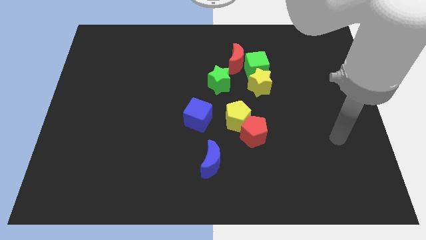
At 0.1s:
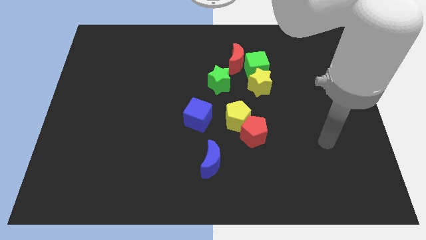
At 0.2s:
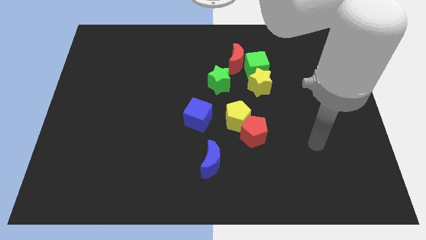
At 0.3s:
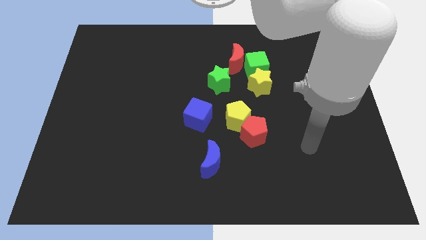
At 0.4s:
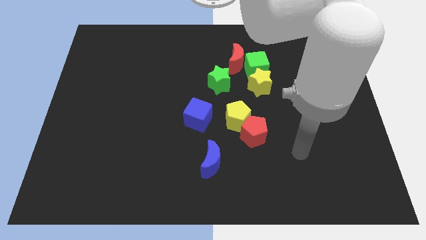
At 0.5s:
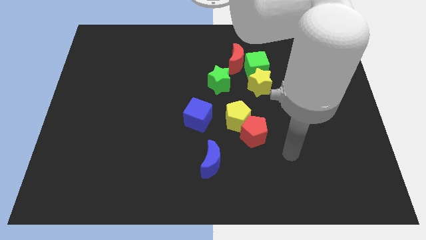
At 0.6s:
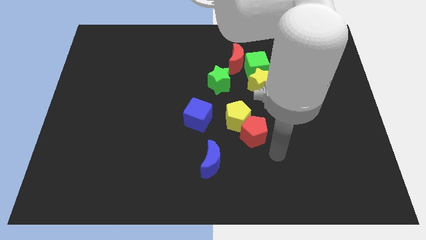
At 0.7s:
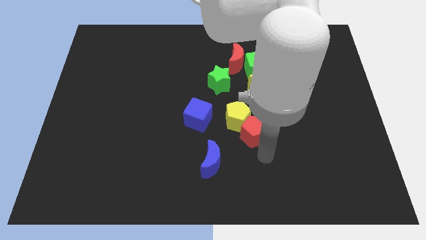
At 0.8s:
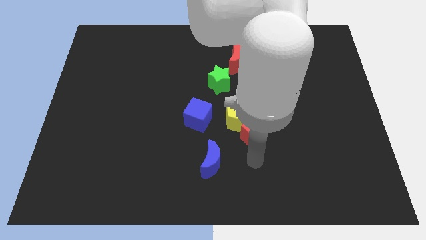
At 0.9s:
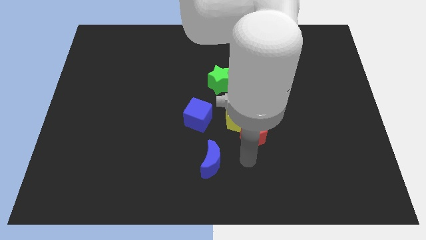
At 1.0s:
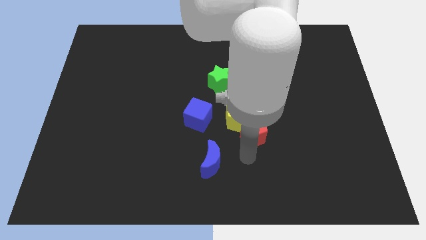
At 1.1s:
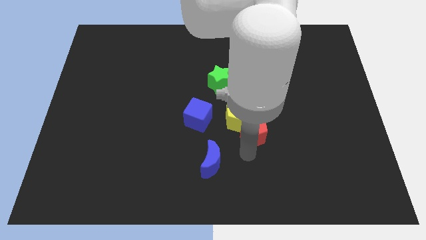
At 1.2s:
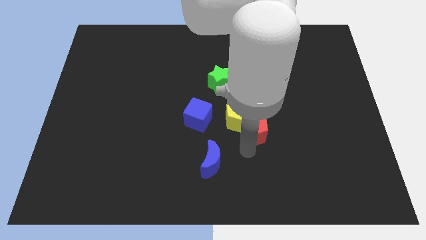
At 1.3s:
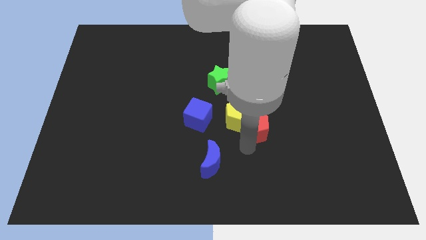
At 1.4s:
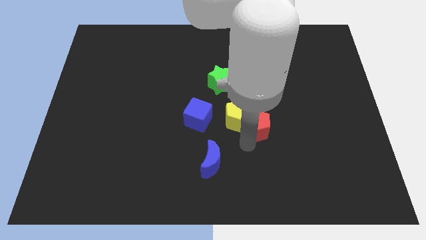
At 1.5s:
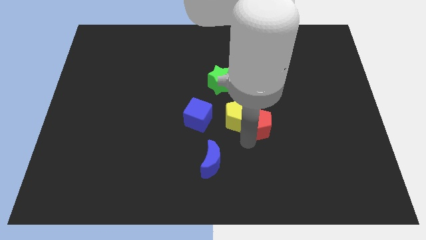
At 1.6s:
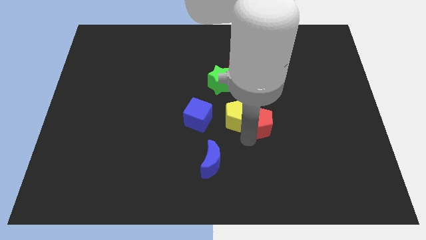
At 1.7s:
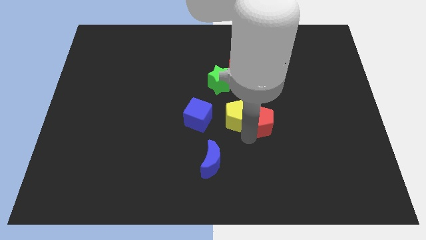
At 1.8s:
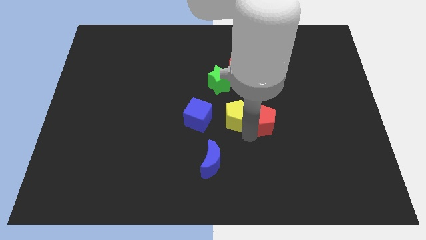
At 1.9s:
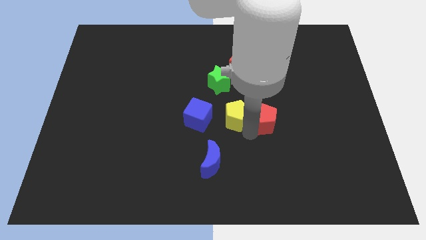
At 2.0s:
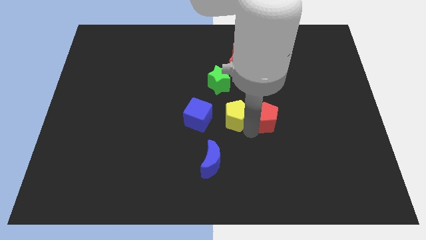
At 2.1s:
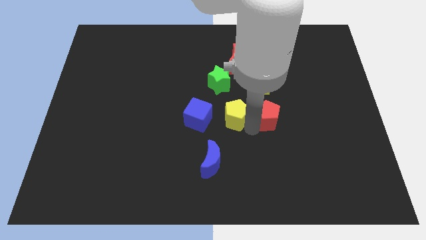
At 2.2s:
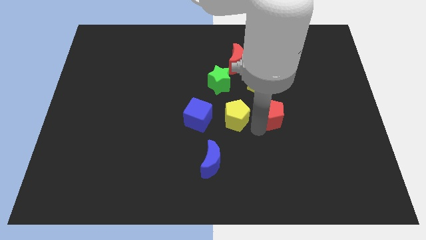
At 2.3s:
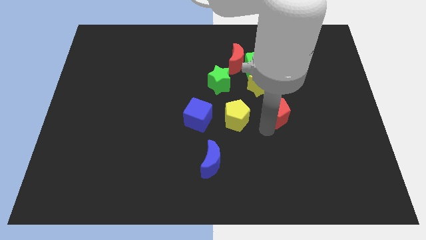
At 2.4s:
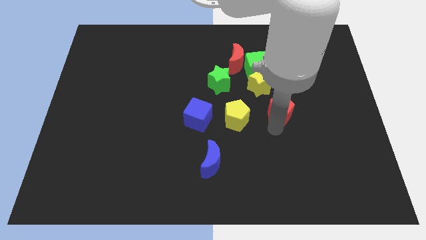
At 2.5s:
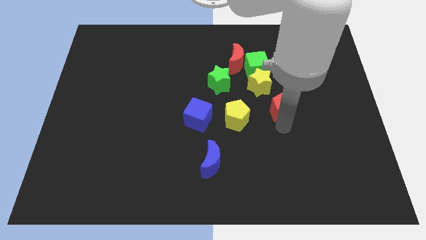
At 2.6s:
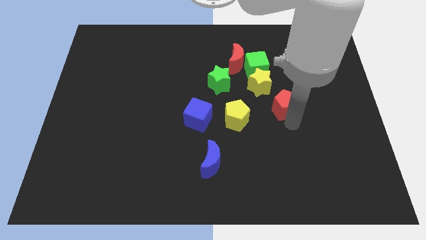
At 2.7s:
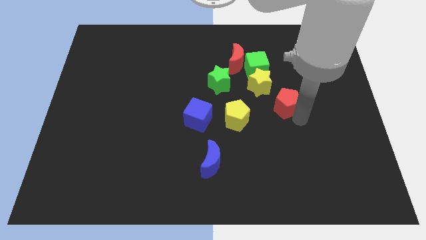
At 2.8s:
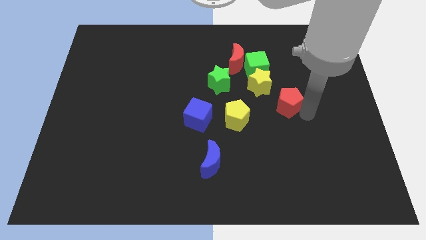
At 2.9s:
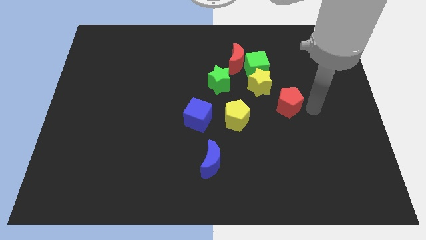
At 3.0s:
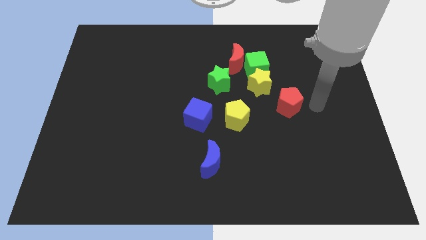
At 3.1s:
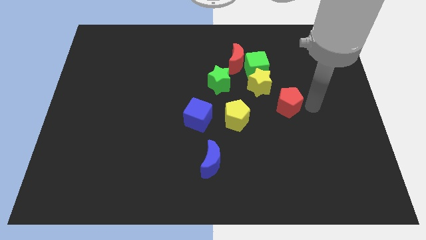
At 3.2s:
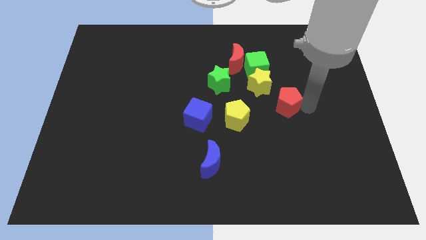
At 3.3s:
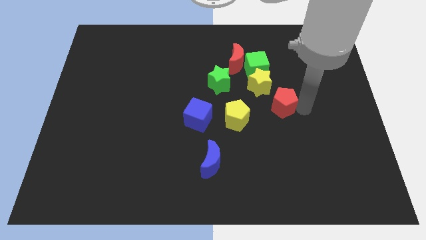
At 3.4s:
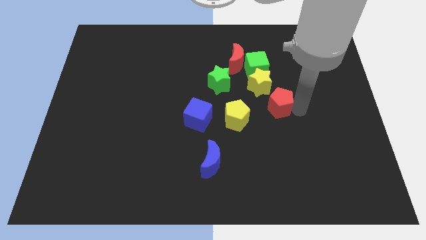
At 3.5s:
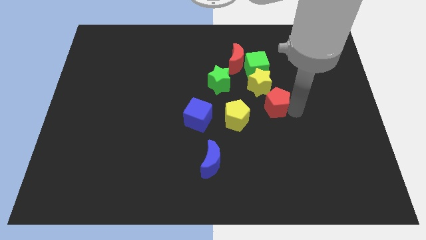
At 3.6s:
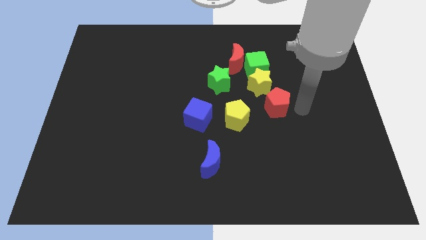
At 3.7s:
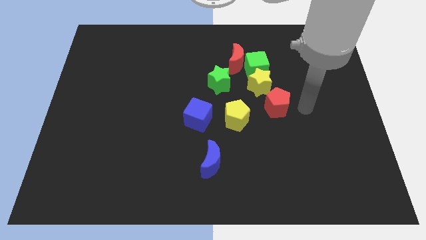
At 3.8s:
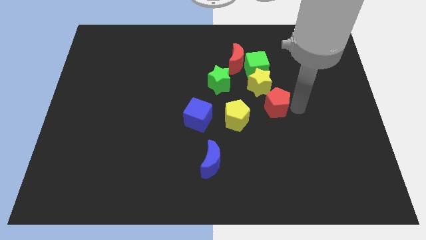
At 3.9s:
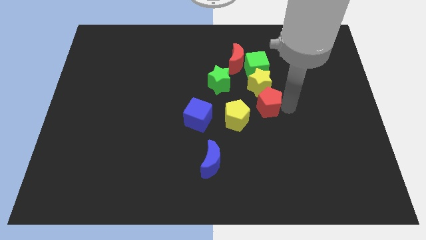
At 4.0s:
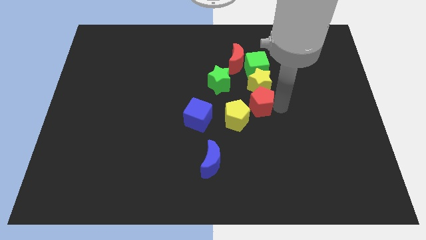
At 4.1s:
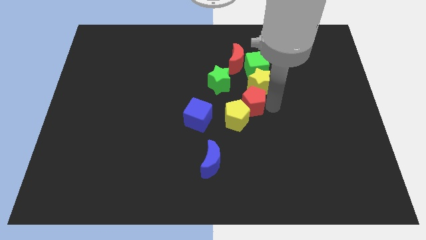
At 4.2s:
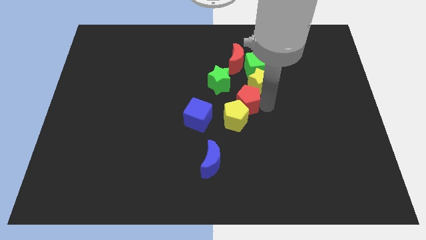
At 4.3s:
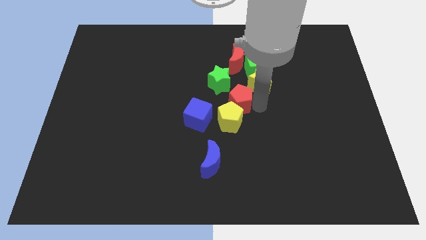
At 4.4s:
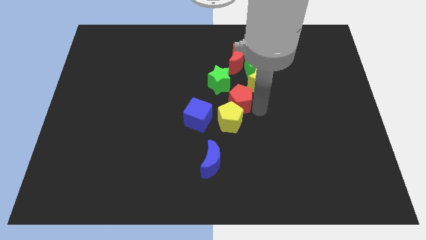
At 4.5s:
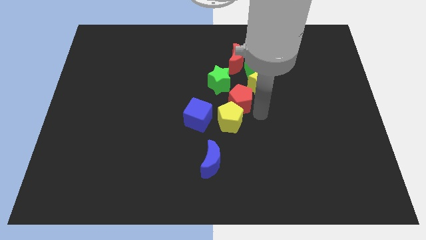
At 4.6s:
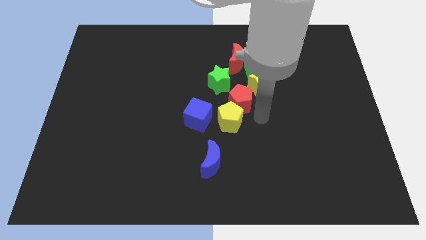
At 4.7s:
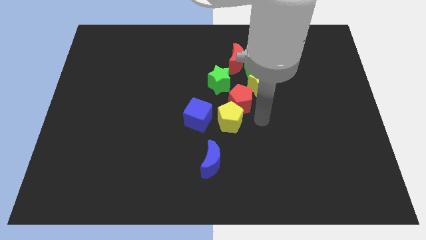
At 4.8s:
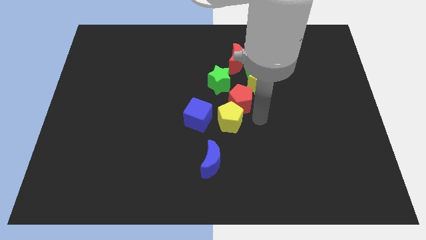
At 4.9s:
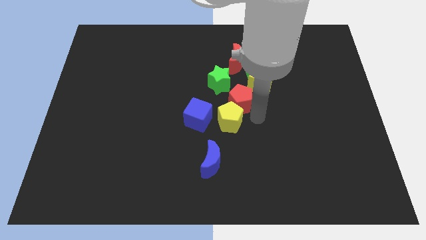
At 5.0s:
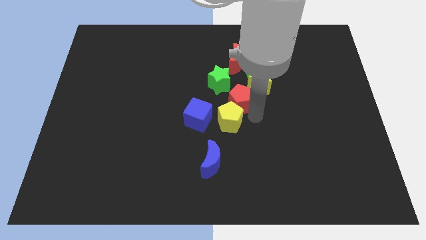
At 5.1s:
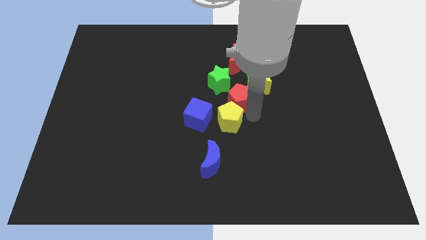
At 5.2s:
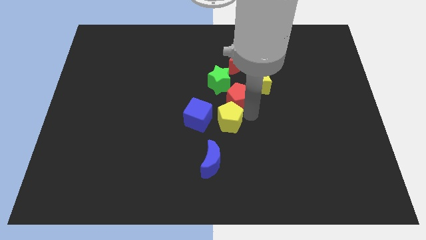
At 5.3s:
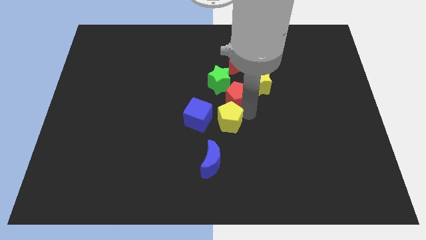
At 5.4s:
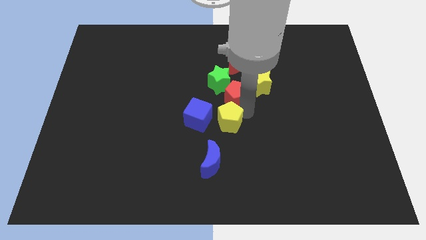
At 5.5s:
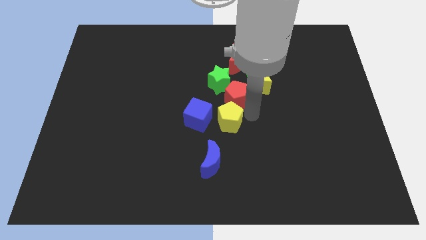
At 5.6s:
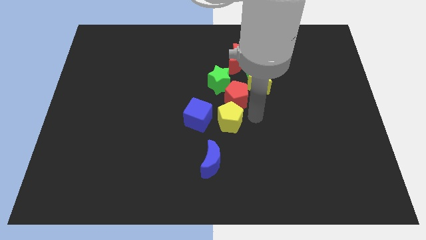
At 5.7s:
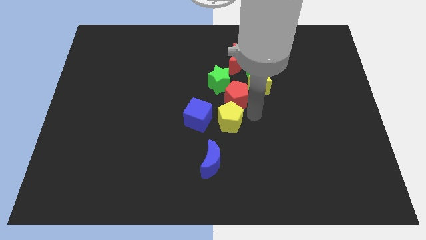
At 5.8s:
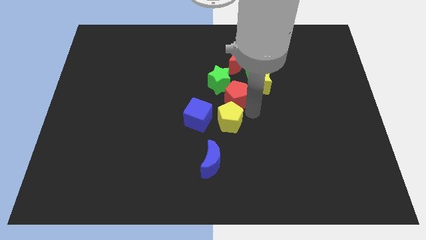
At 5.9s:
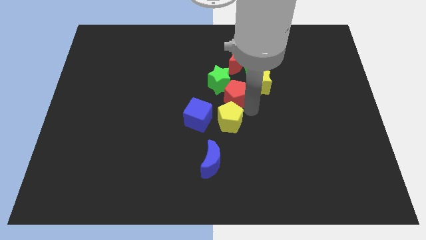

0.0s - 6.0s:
slide the red pentagon close to the green star

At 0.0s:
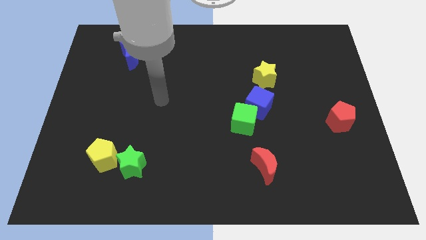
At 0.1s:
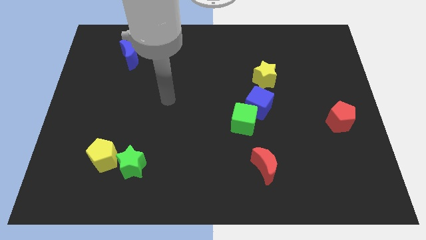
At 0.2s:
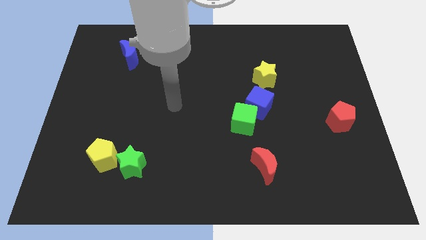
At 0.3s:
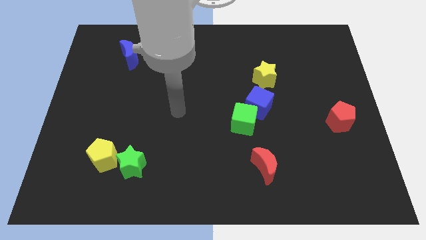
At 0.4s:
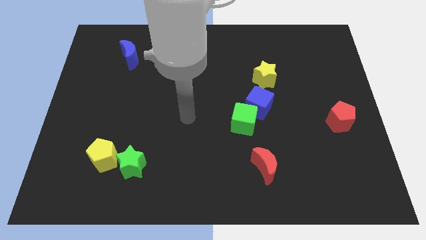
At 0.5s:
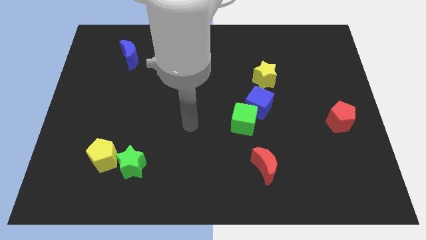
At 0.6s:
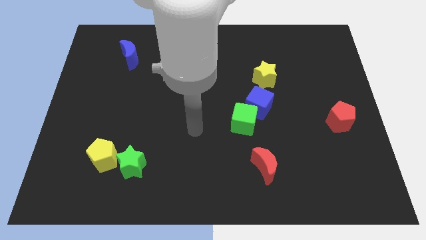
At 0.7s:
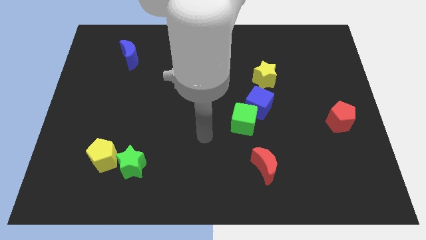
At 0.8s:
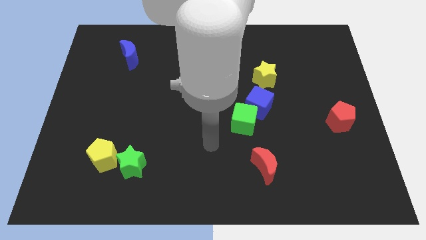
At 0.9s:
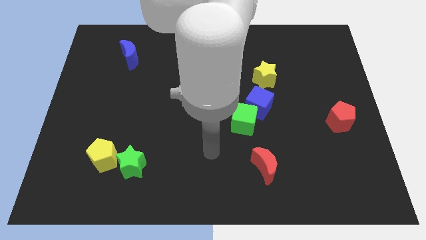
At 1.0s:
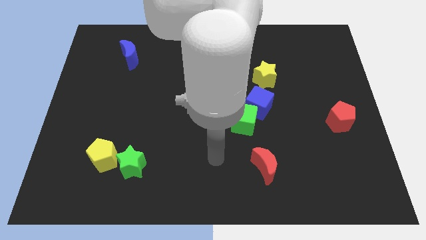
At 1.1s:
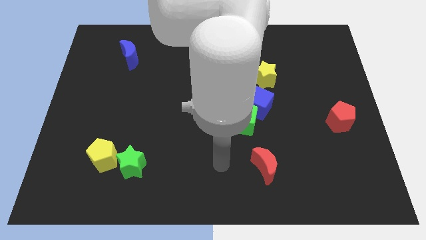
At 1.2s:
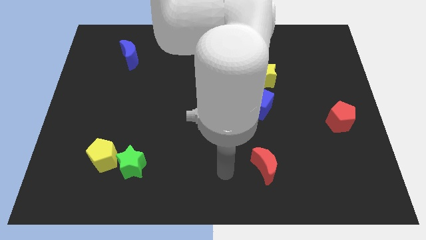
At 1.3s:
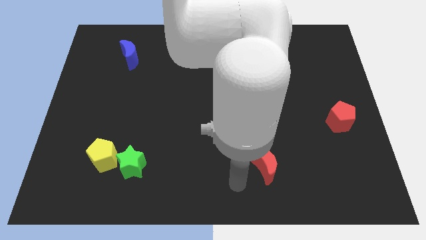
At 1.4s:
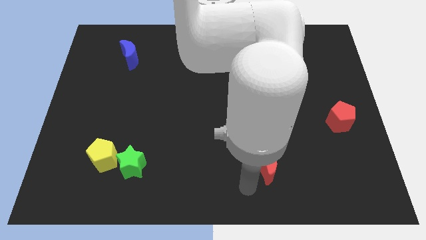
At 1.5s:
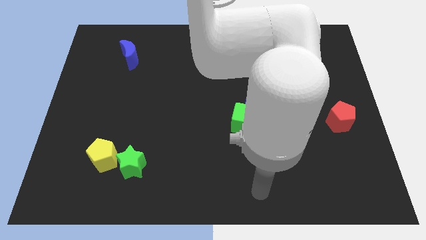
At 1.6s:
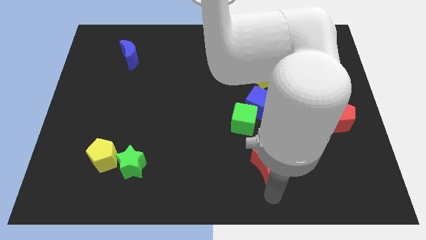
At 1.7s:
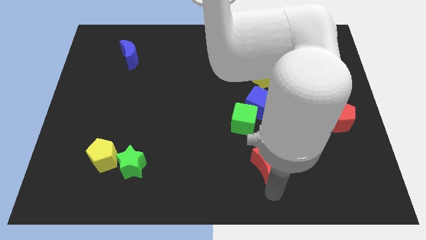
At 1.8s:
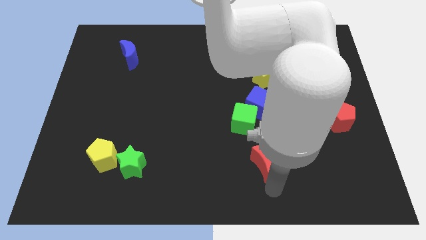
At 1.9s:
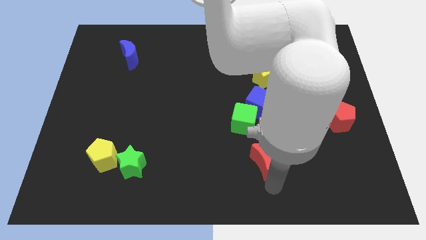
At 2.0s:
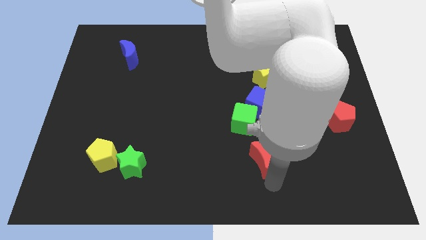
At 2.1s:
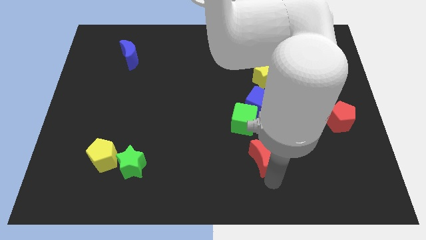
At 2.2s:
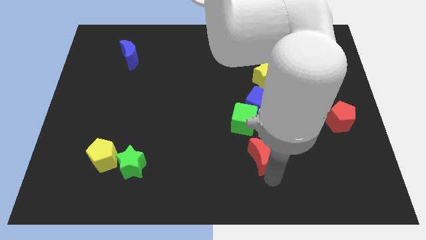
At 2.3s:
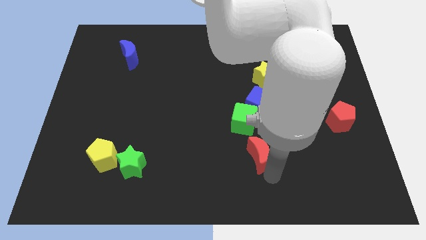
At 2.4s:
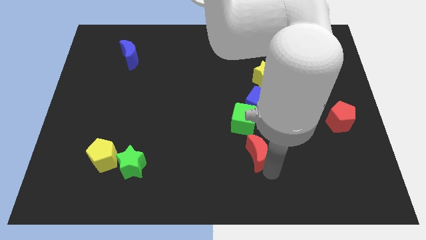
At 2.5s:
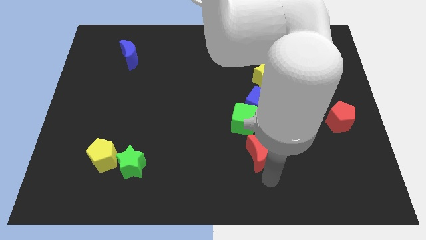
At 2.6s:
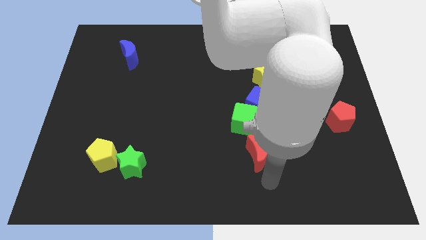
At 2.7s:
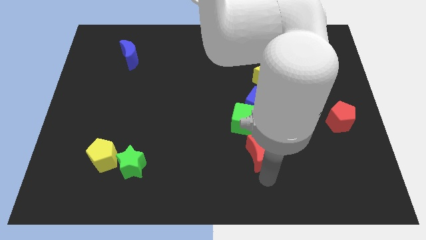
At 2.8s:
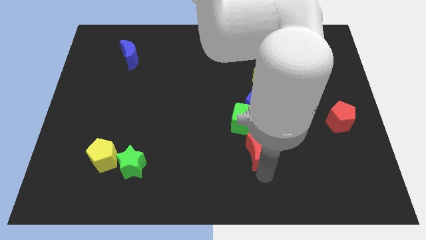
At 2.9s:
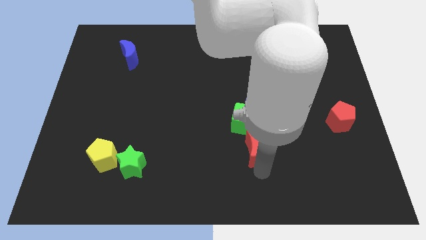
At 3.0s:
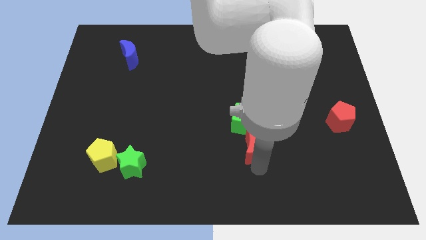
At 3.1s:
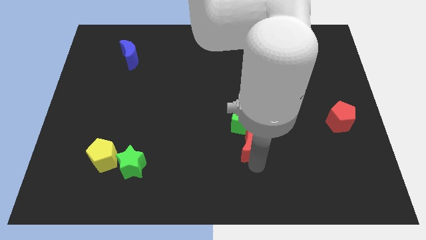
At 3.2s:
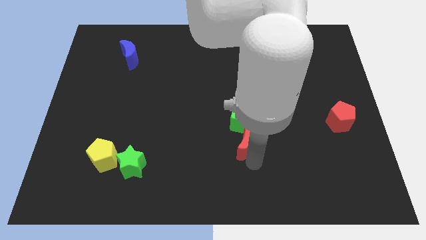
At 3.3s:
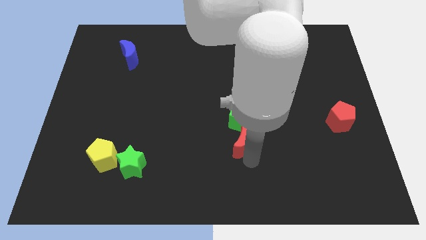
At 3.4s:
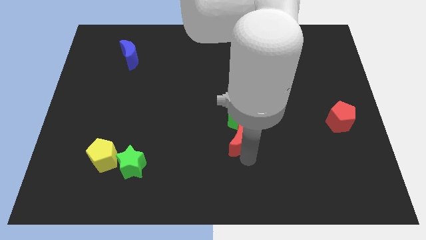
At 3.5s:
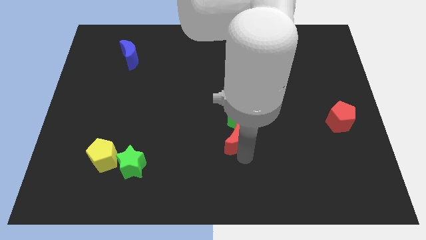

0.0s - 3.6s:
put the red moon close to the green cube
